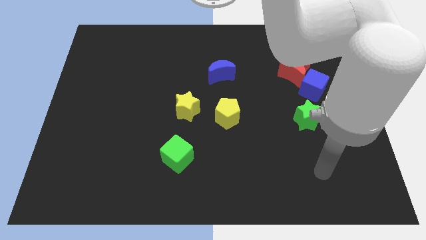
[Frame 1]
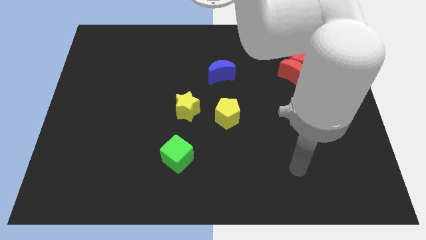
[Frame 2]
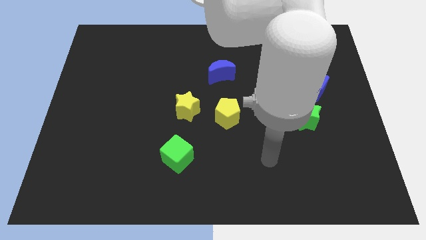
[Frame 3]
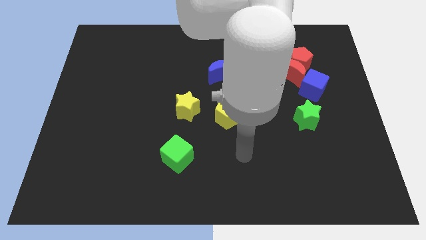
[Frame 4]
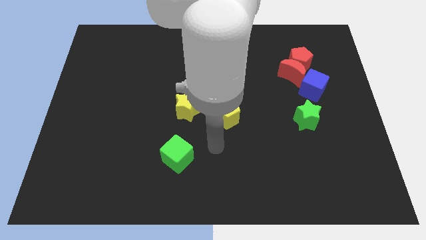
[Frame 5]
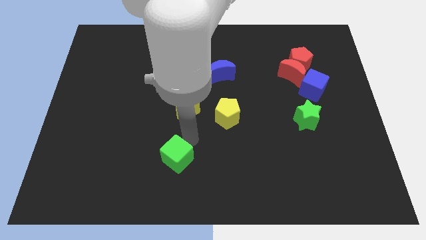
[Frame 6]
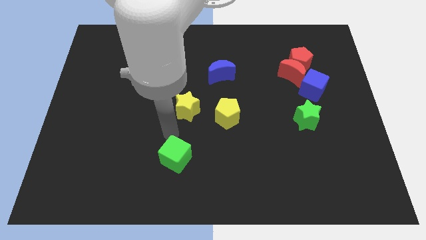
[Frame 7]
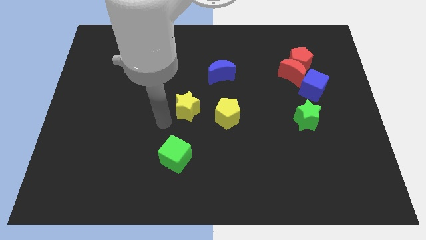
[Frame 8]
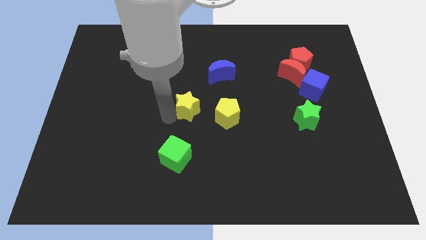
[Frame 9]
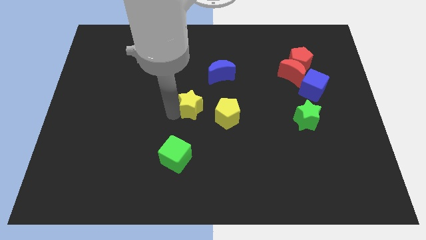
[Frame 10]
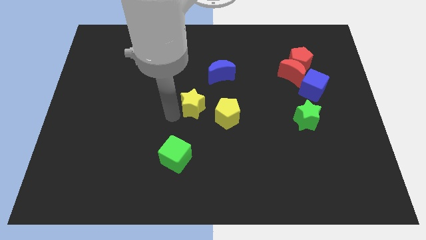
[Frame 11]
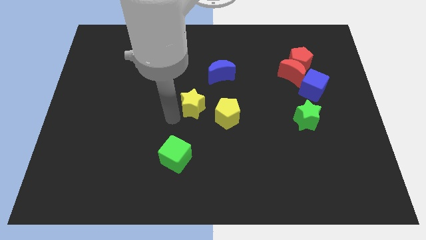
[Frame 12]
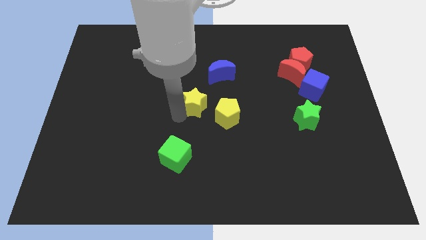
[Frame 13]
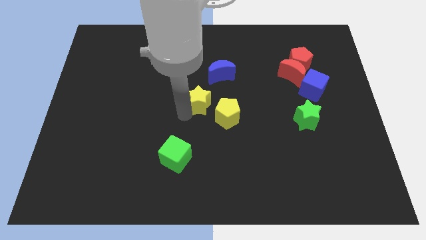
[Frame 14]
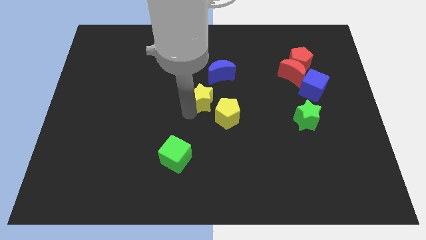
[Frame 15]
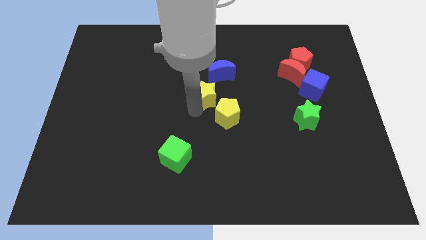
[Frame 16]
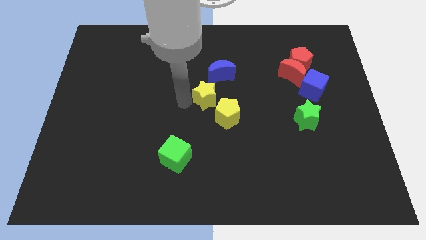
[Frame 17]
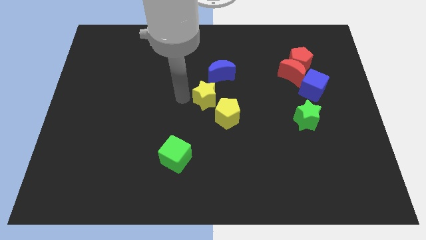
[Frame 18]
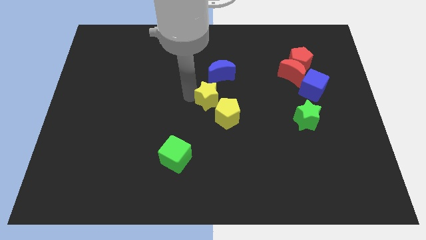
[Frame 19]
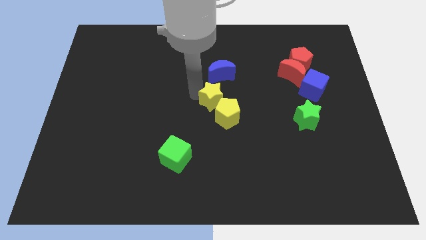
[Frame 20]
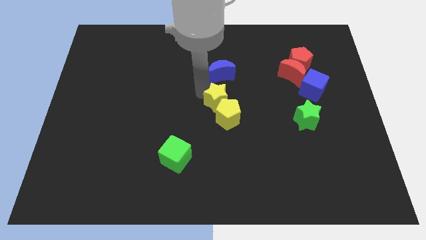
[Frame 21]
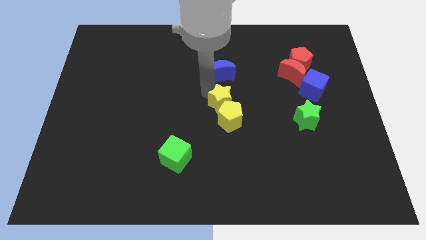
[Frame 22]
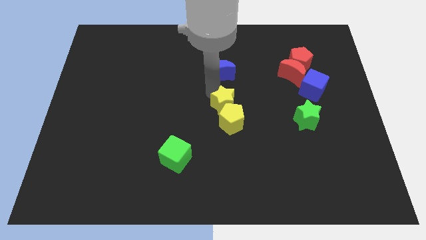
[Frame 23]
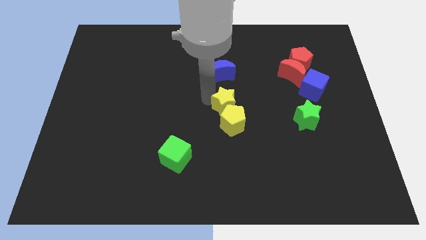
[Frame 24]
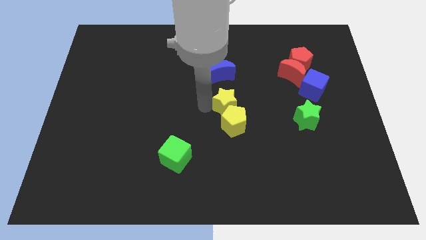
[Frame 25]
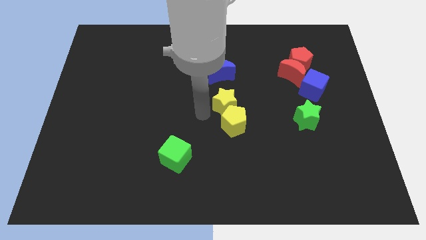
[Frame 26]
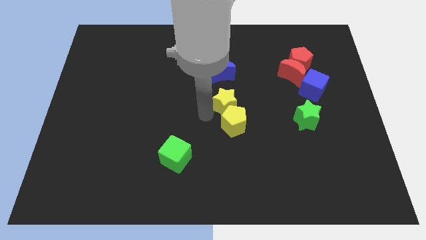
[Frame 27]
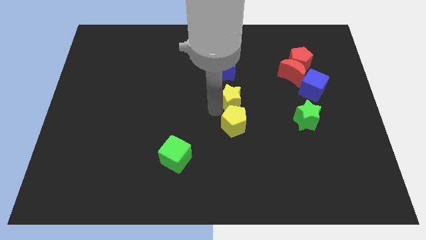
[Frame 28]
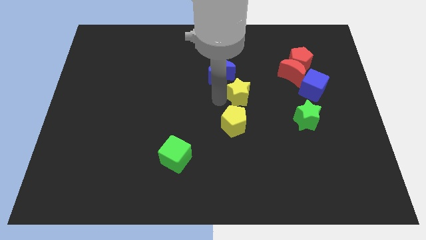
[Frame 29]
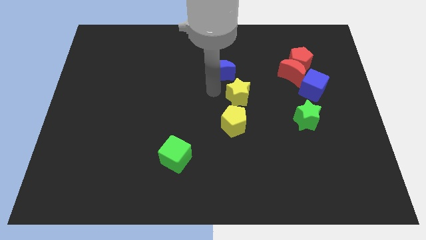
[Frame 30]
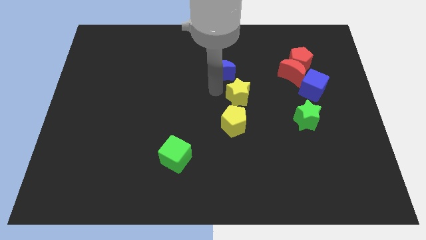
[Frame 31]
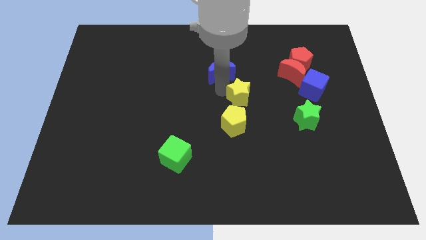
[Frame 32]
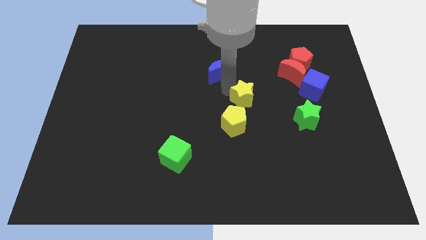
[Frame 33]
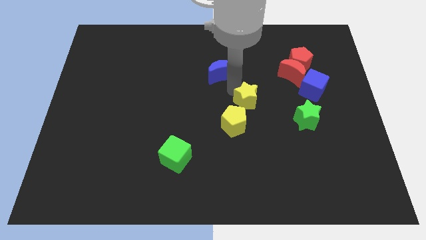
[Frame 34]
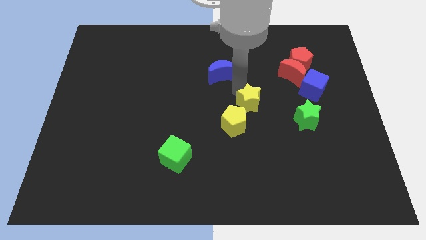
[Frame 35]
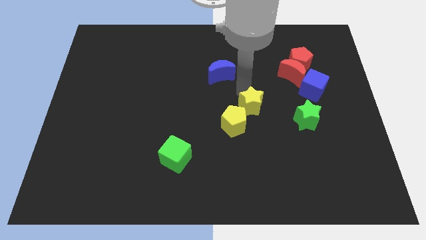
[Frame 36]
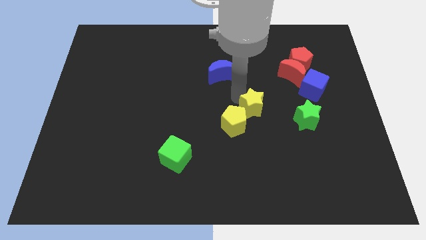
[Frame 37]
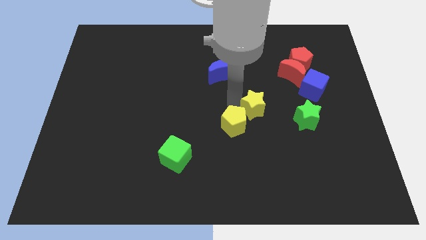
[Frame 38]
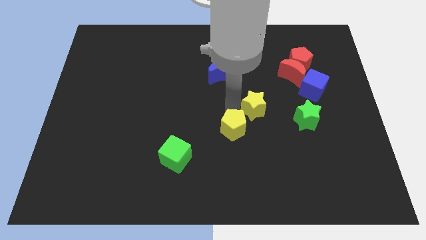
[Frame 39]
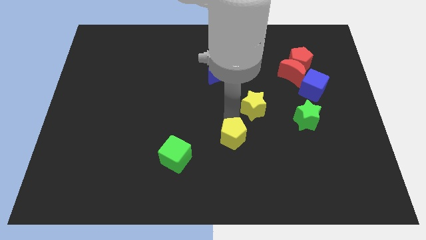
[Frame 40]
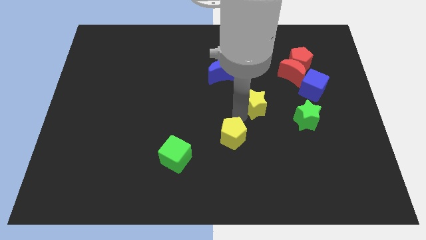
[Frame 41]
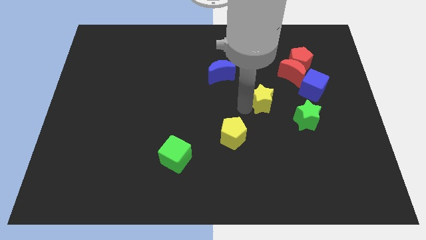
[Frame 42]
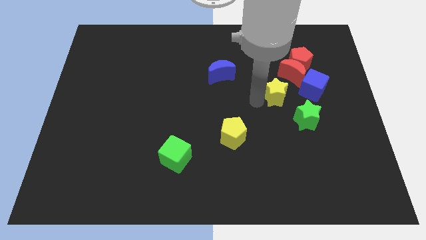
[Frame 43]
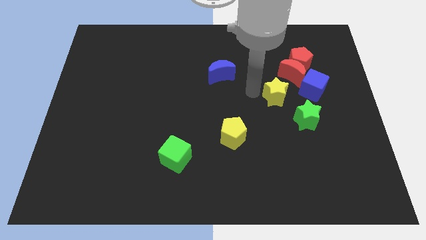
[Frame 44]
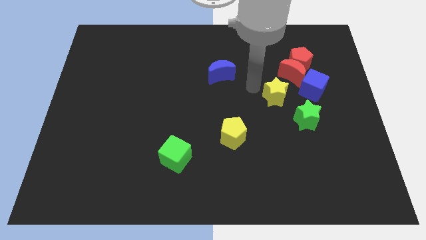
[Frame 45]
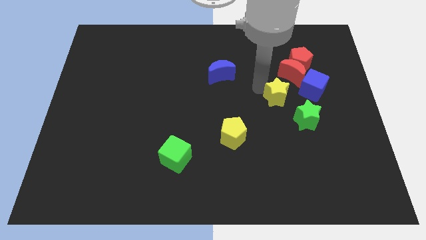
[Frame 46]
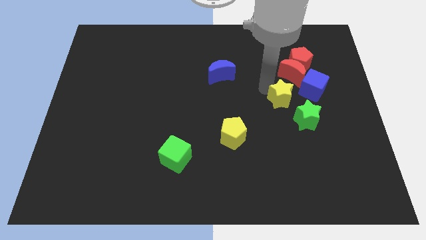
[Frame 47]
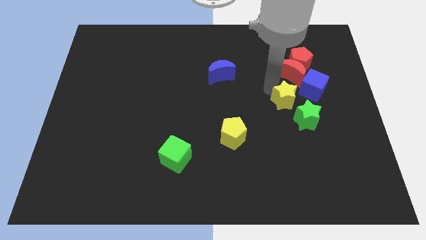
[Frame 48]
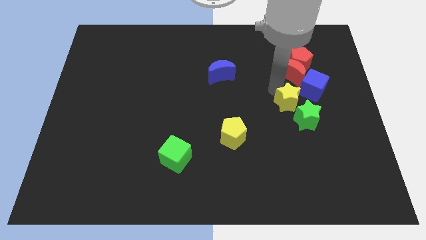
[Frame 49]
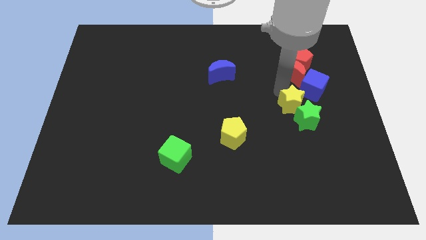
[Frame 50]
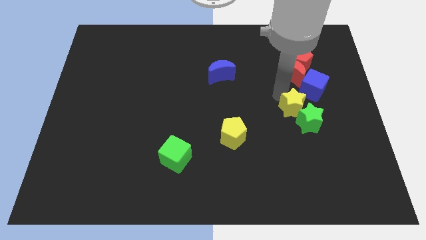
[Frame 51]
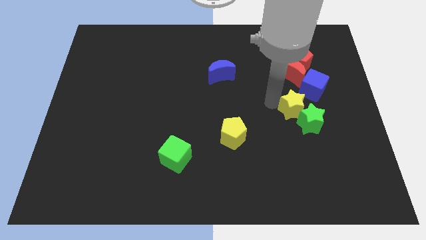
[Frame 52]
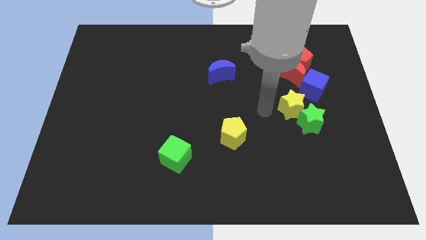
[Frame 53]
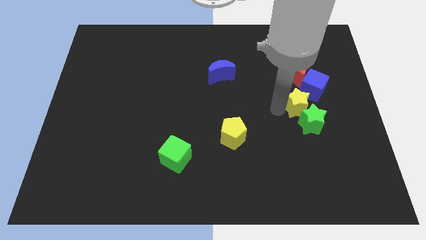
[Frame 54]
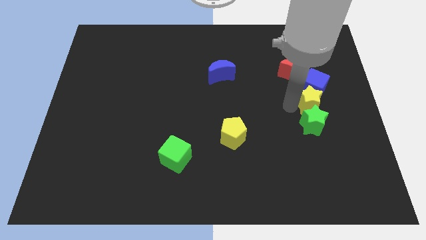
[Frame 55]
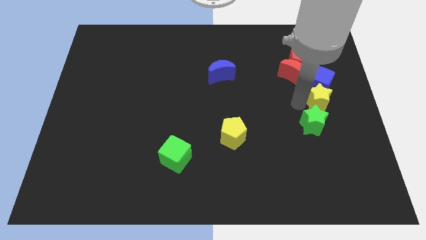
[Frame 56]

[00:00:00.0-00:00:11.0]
push the yellow star to the right side of the board
